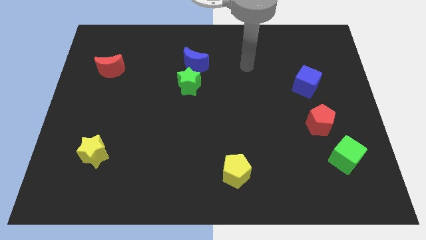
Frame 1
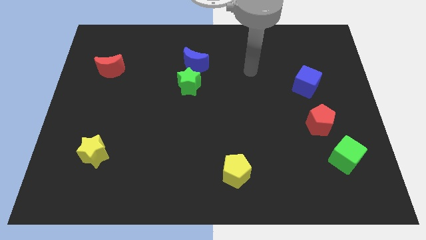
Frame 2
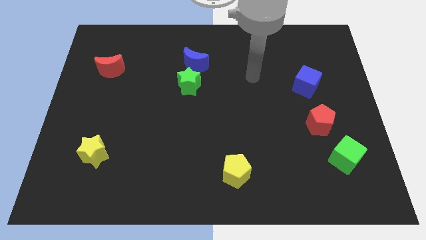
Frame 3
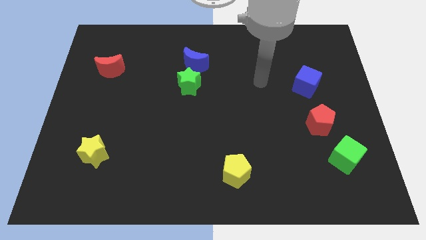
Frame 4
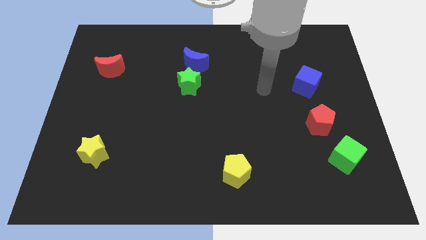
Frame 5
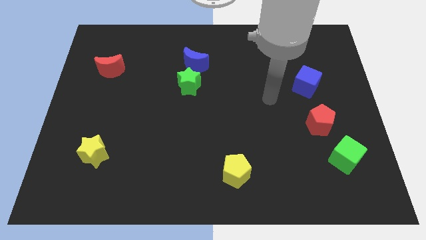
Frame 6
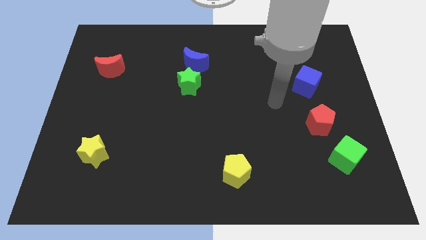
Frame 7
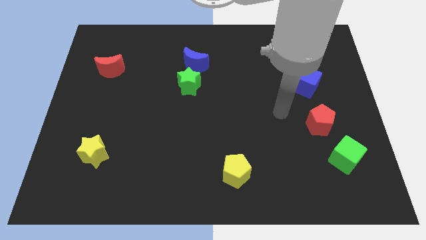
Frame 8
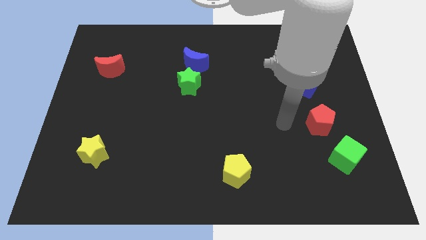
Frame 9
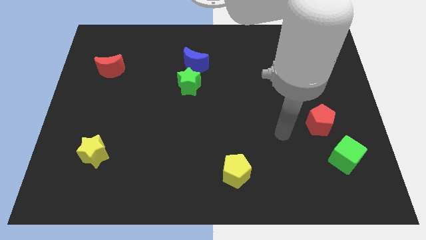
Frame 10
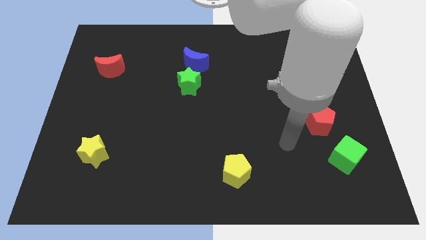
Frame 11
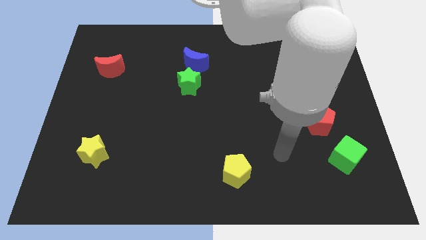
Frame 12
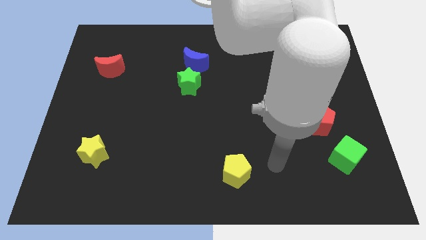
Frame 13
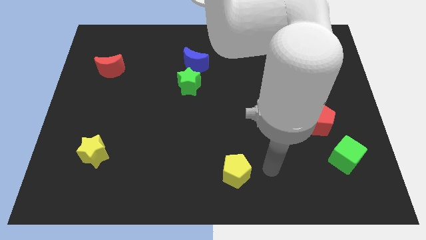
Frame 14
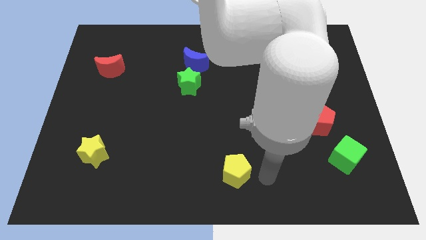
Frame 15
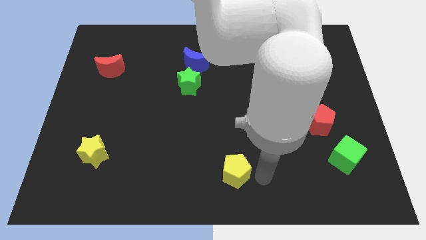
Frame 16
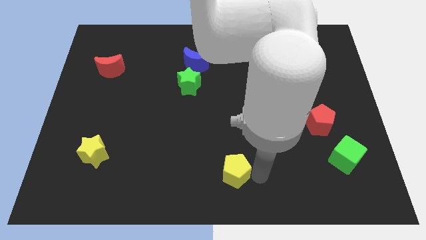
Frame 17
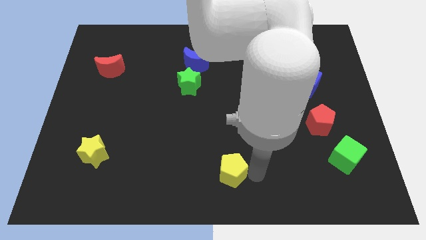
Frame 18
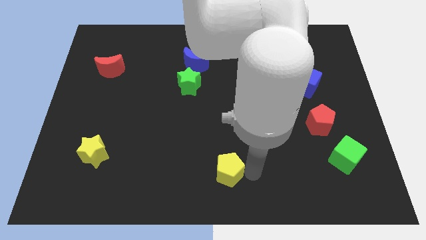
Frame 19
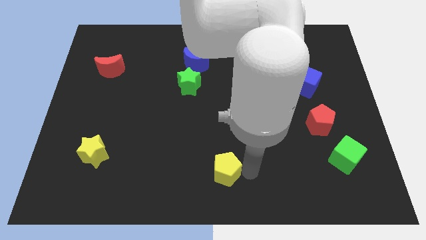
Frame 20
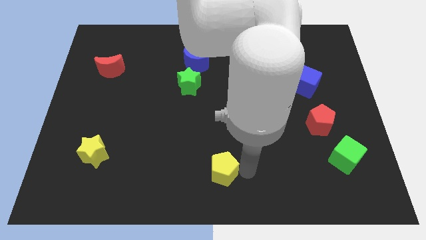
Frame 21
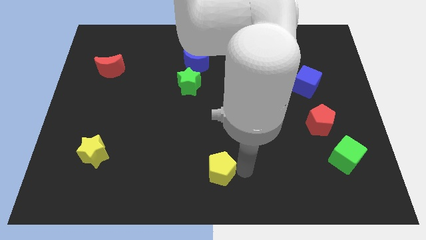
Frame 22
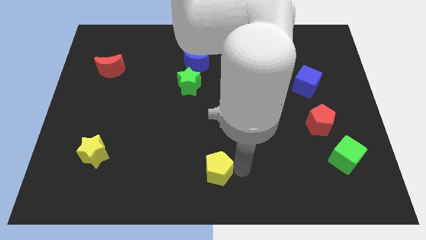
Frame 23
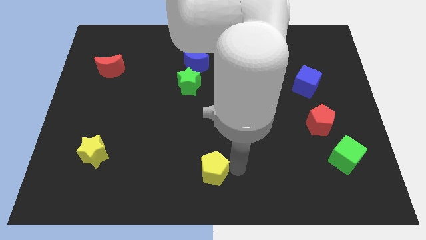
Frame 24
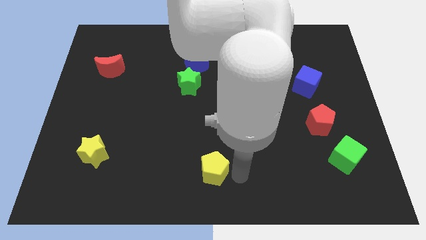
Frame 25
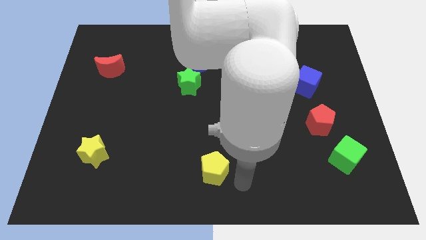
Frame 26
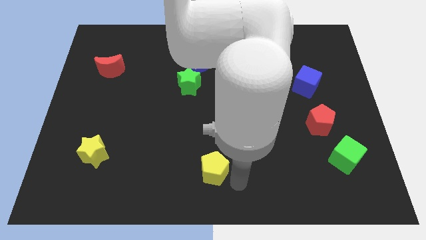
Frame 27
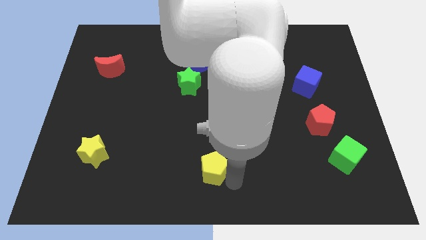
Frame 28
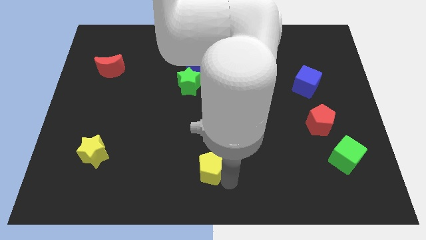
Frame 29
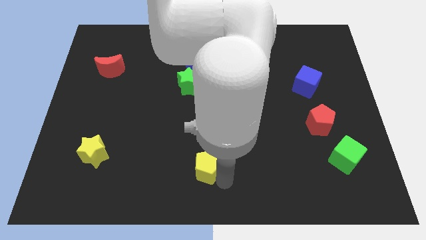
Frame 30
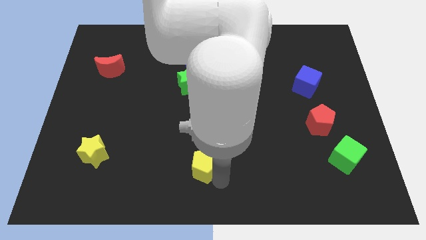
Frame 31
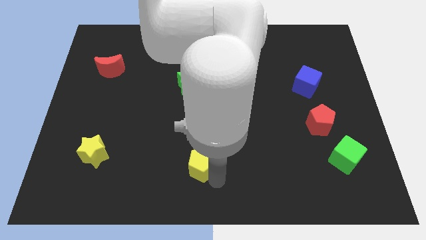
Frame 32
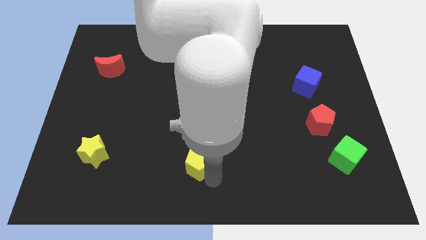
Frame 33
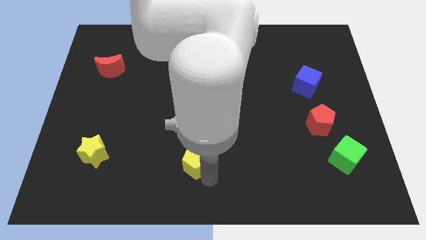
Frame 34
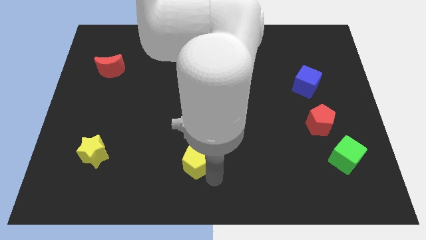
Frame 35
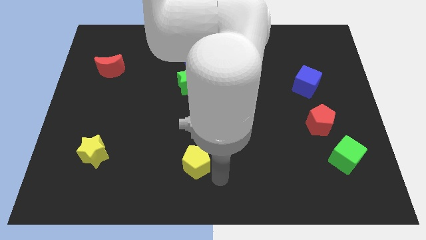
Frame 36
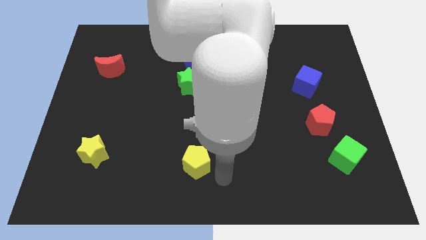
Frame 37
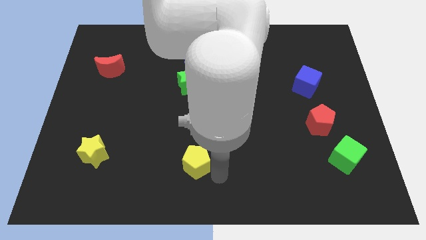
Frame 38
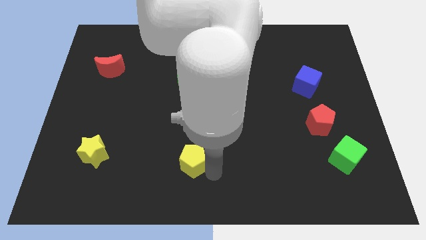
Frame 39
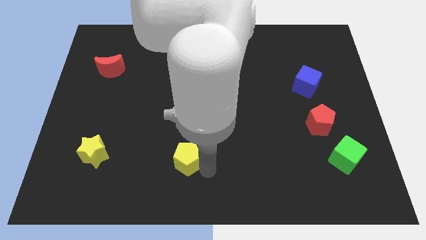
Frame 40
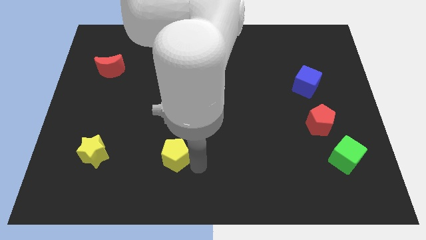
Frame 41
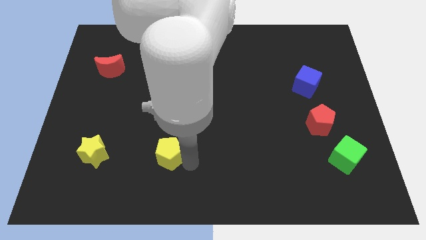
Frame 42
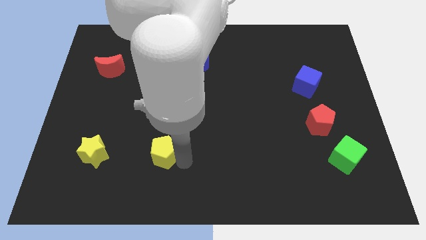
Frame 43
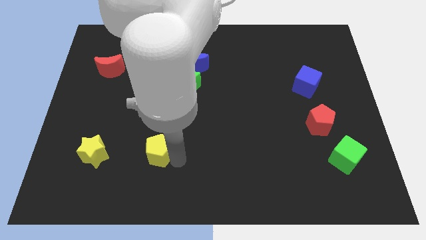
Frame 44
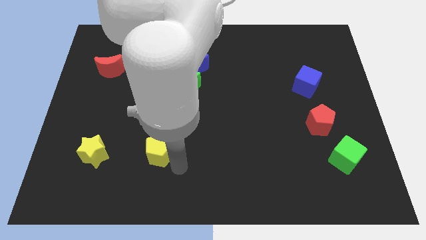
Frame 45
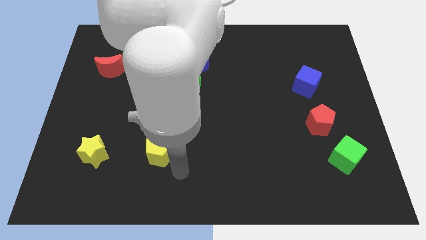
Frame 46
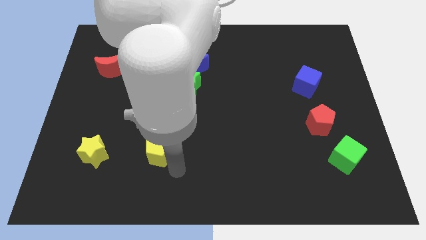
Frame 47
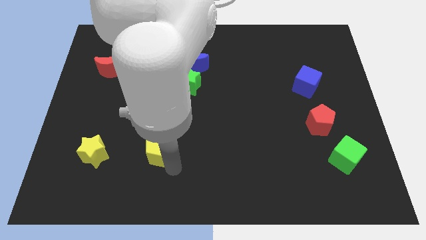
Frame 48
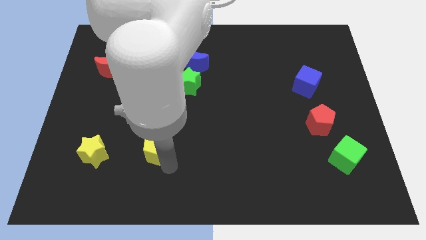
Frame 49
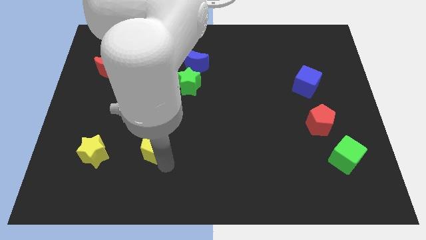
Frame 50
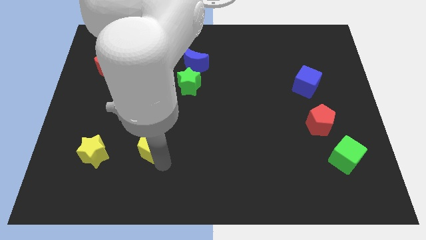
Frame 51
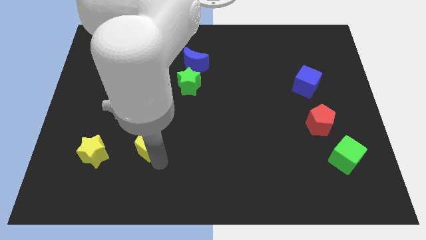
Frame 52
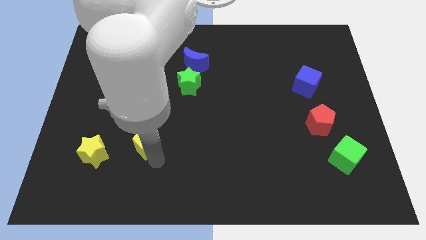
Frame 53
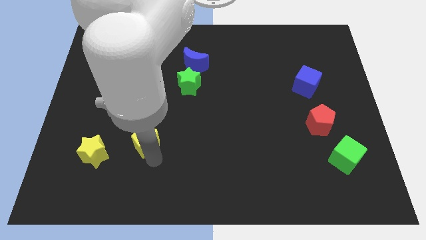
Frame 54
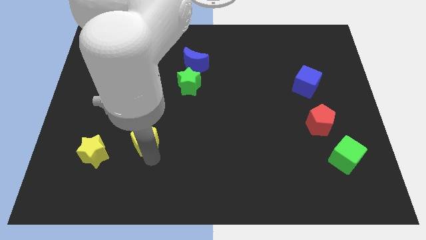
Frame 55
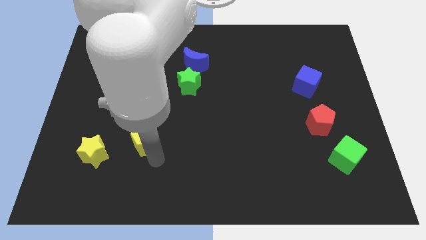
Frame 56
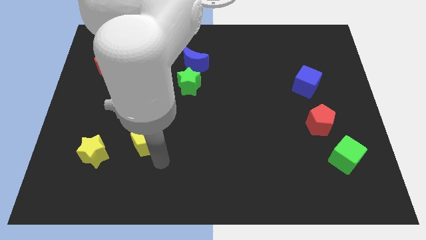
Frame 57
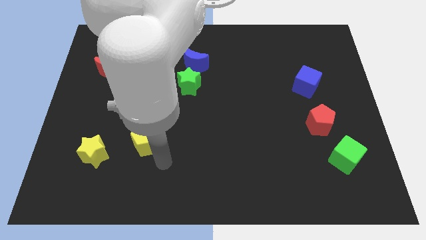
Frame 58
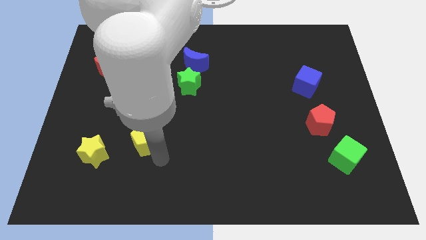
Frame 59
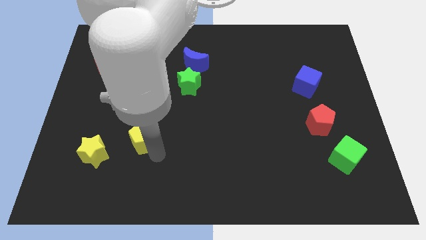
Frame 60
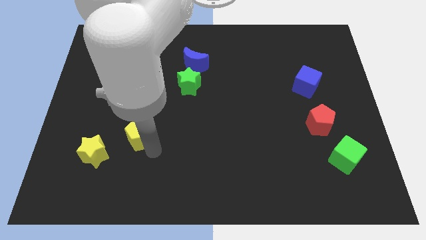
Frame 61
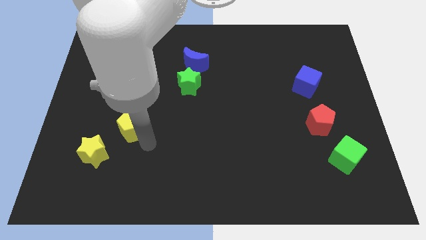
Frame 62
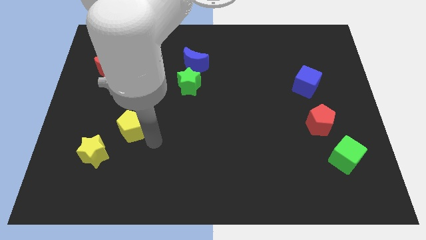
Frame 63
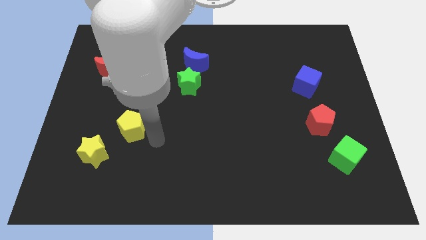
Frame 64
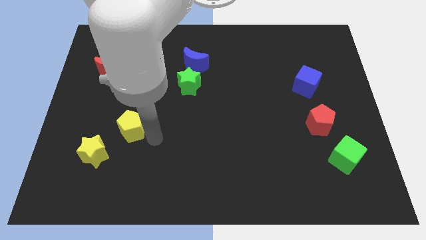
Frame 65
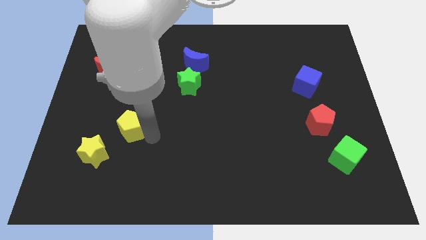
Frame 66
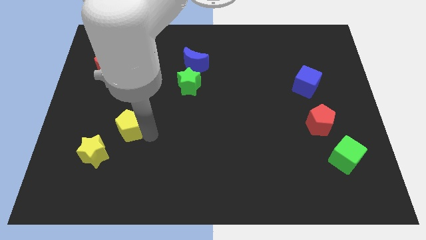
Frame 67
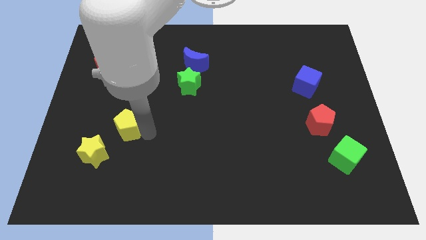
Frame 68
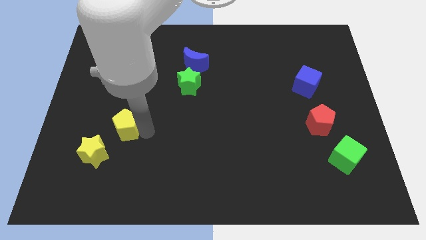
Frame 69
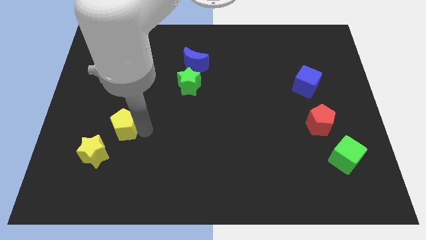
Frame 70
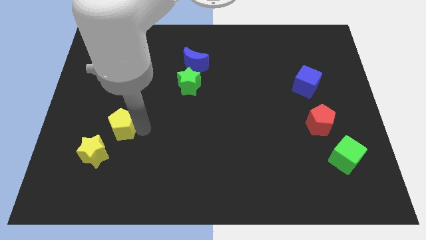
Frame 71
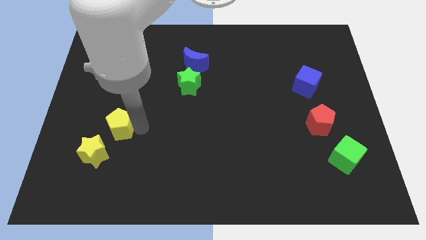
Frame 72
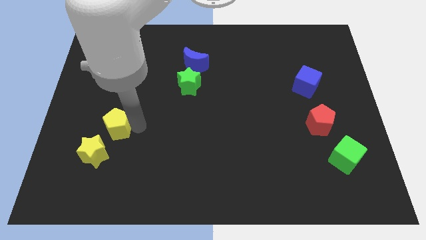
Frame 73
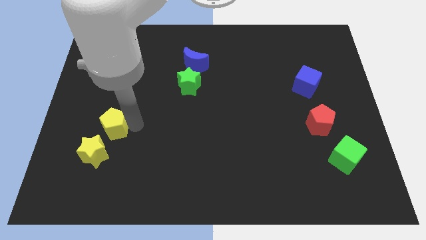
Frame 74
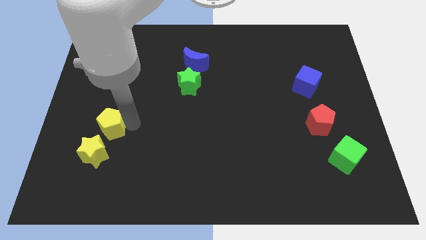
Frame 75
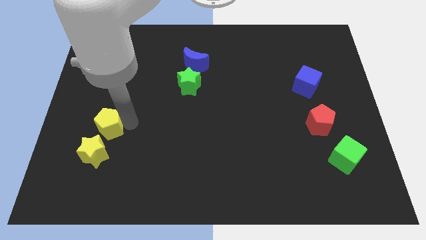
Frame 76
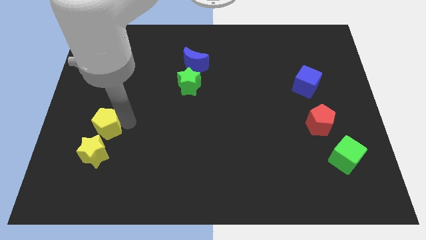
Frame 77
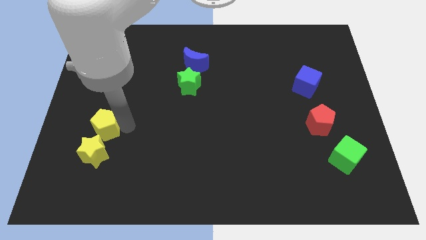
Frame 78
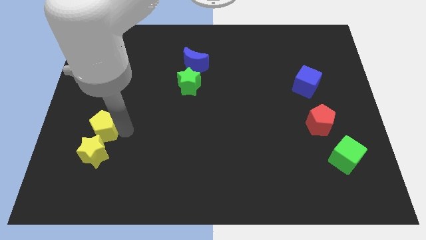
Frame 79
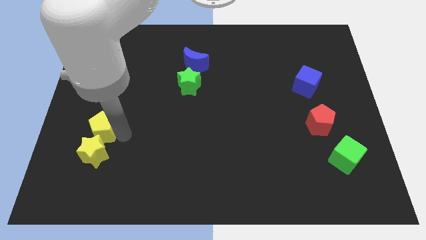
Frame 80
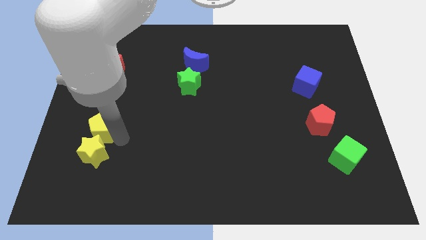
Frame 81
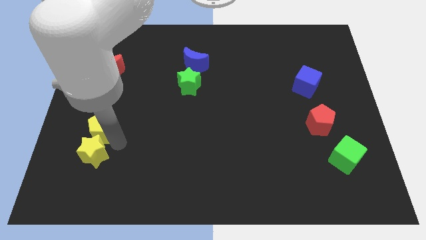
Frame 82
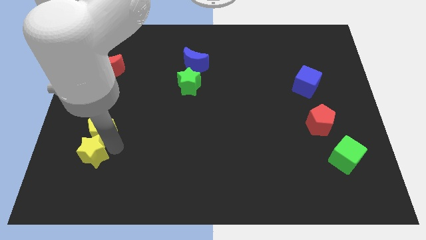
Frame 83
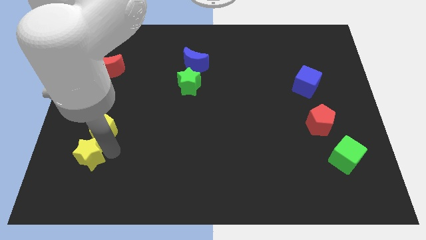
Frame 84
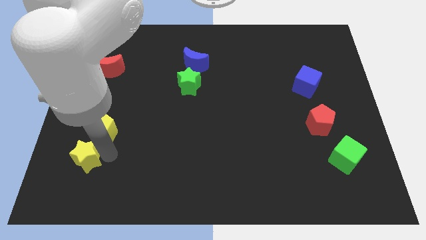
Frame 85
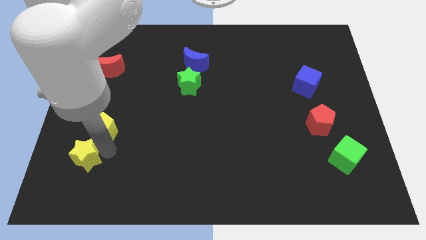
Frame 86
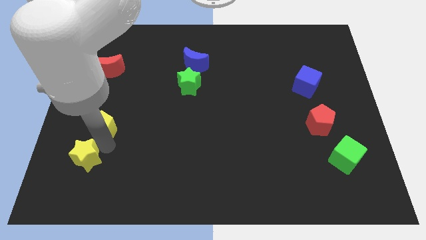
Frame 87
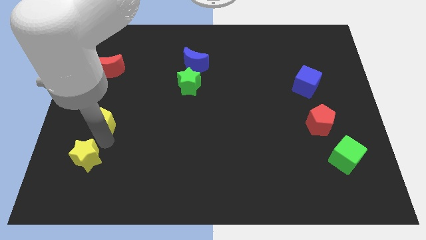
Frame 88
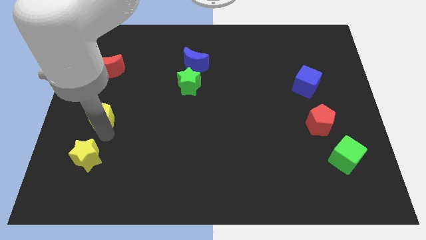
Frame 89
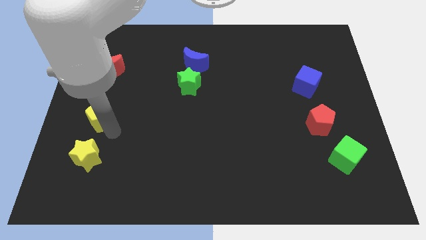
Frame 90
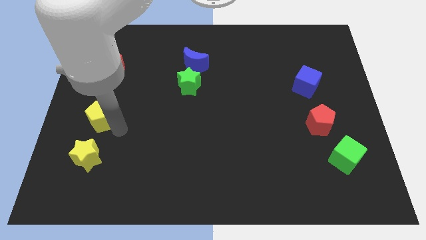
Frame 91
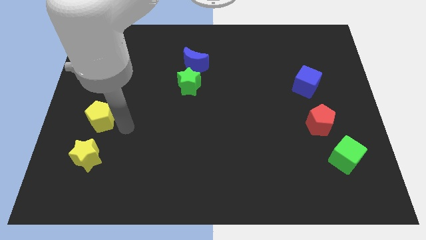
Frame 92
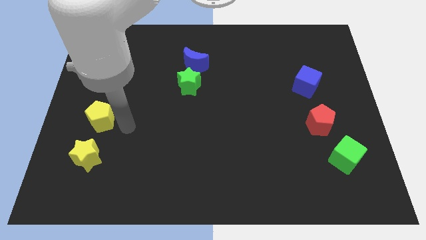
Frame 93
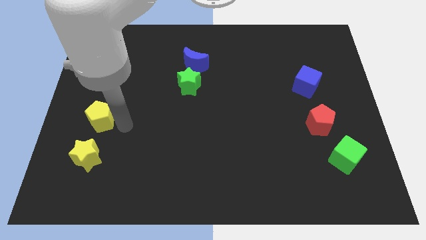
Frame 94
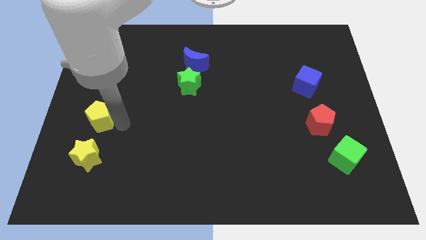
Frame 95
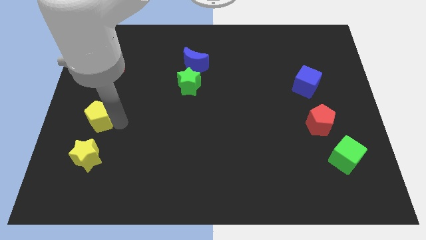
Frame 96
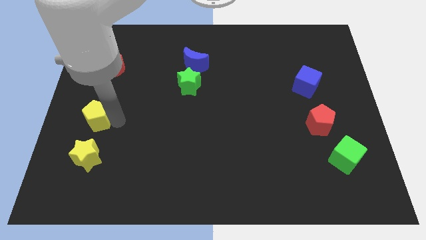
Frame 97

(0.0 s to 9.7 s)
move the yellow pentagon to the left side of the board
